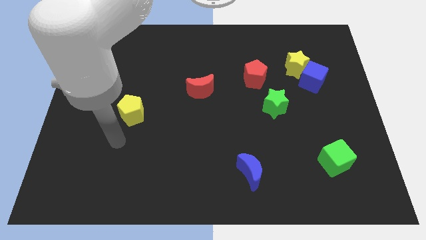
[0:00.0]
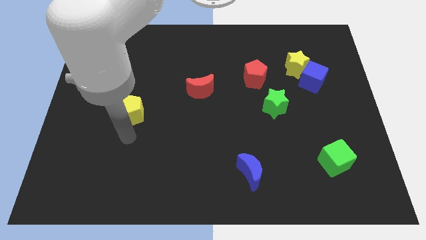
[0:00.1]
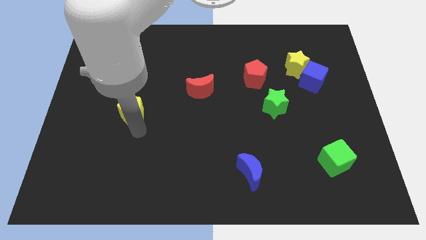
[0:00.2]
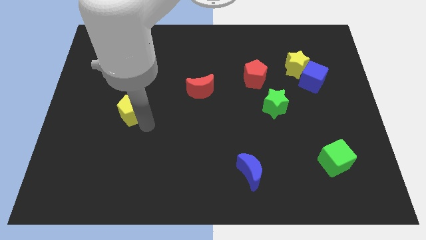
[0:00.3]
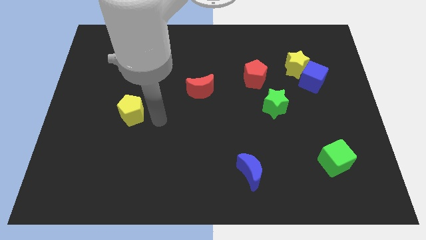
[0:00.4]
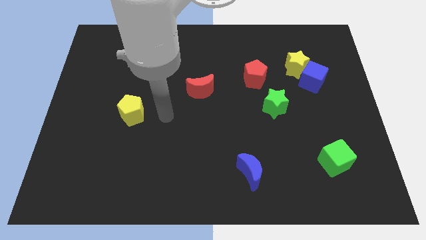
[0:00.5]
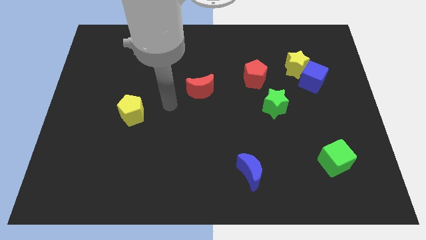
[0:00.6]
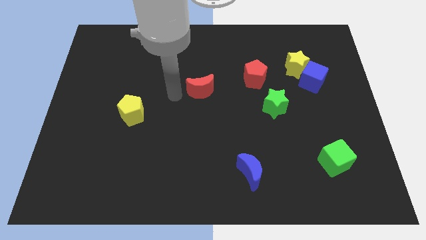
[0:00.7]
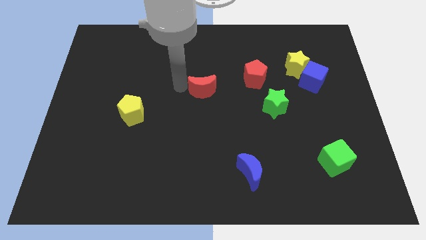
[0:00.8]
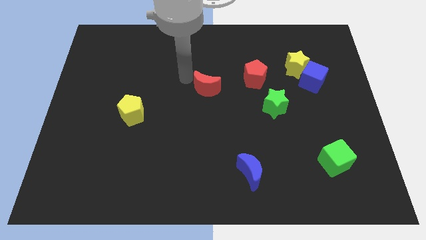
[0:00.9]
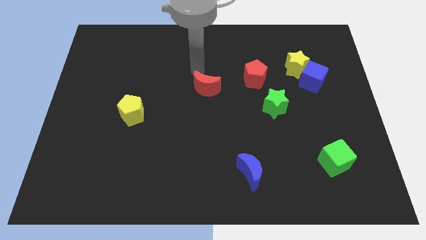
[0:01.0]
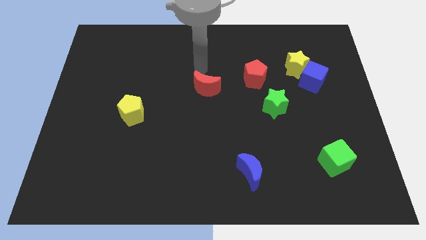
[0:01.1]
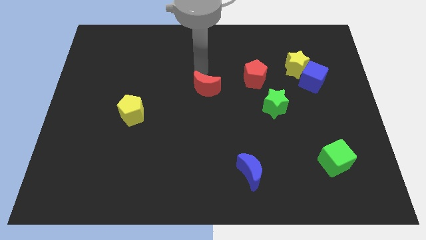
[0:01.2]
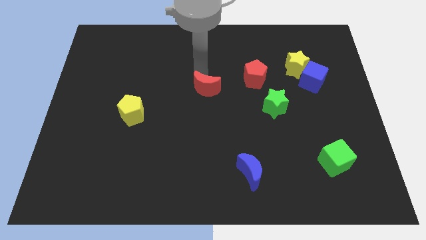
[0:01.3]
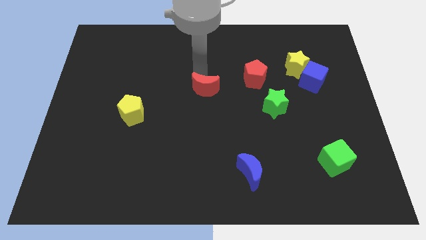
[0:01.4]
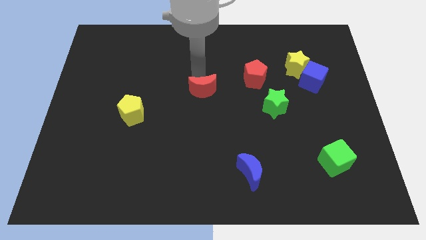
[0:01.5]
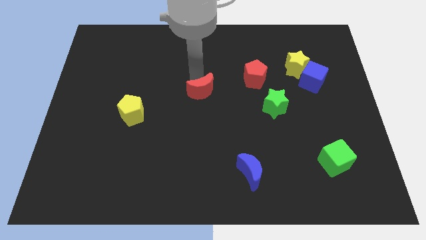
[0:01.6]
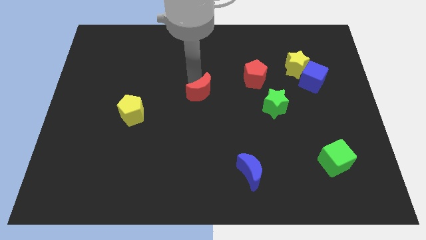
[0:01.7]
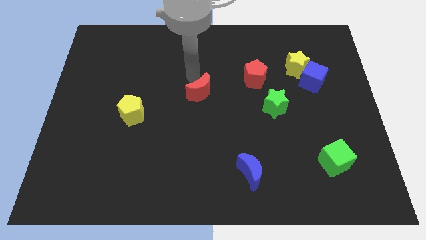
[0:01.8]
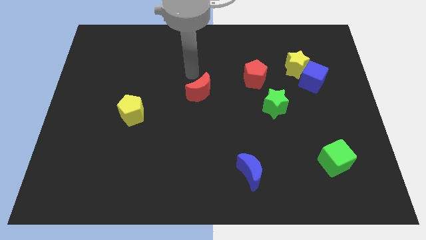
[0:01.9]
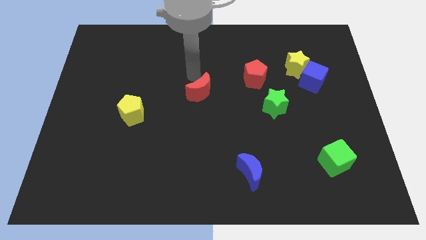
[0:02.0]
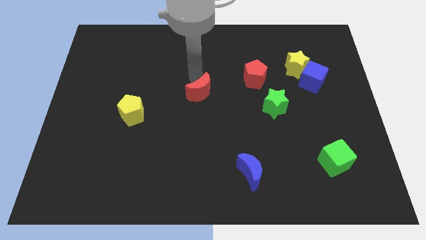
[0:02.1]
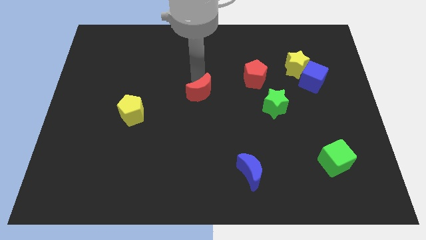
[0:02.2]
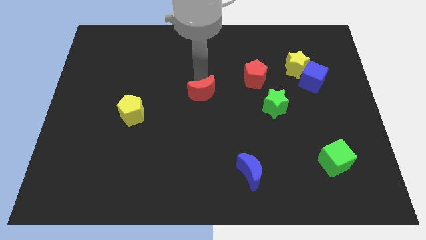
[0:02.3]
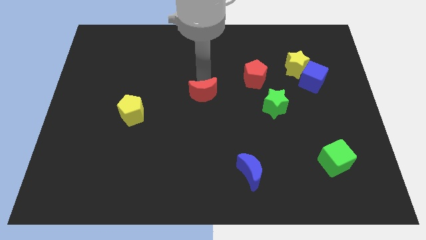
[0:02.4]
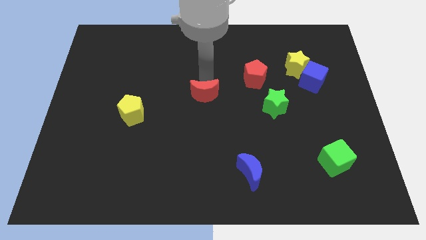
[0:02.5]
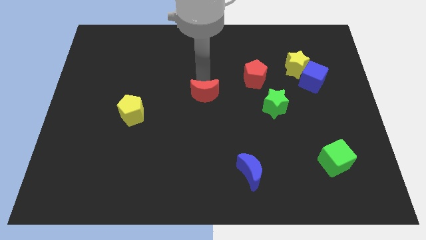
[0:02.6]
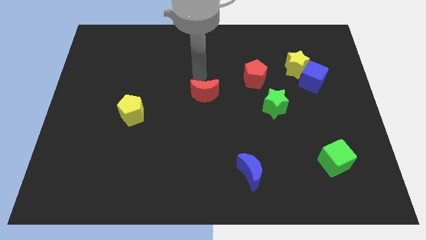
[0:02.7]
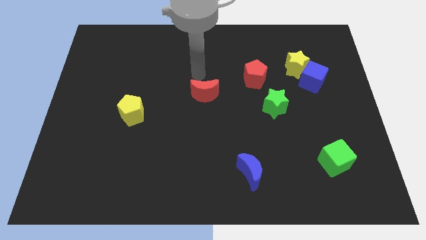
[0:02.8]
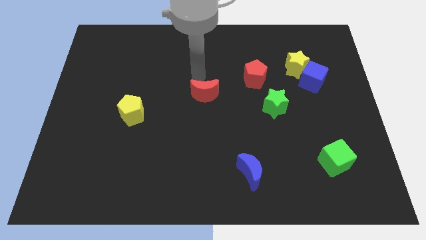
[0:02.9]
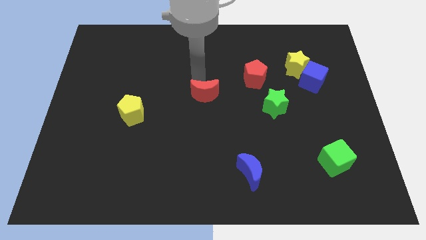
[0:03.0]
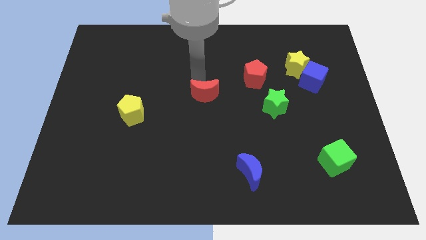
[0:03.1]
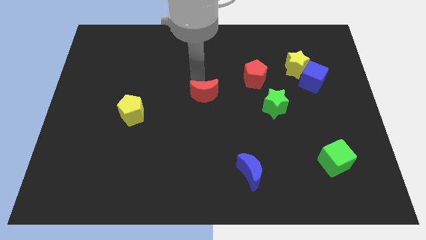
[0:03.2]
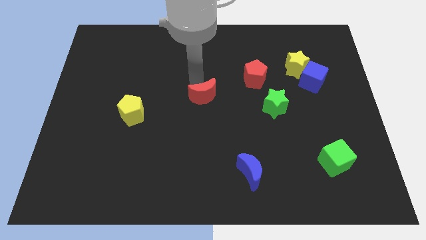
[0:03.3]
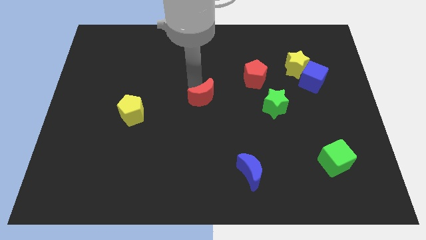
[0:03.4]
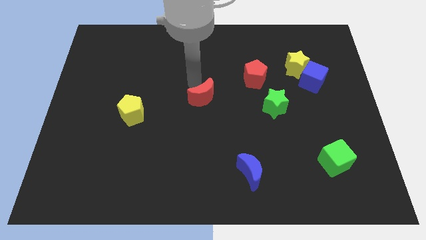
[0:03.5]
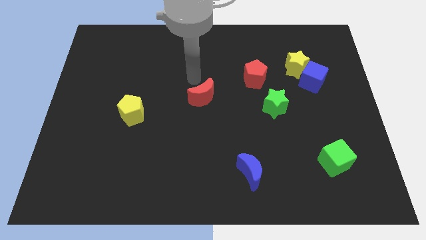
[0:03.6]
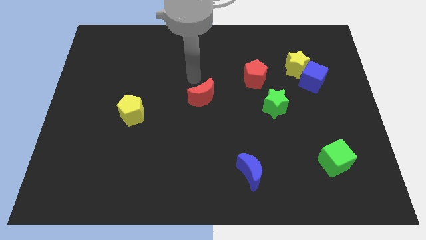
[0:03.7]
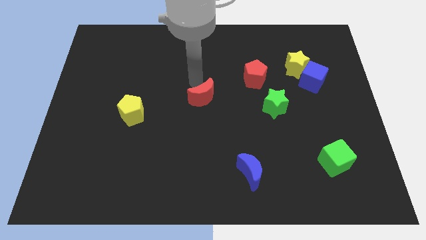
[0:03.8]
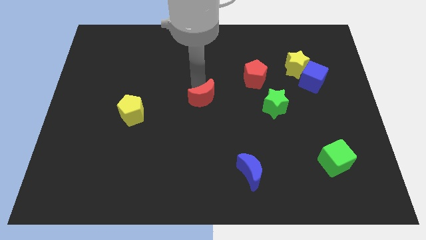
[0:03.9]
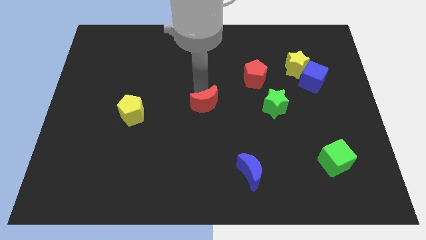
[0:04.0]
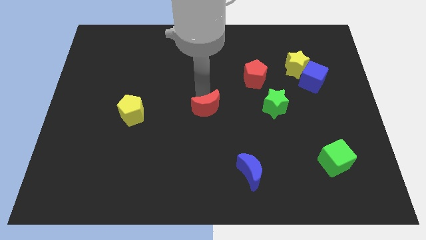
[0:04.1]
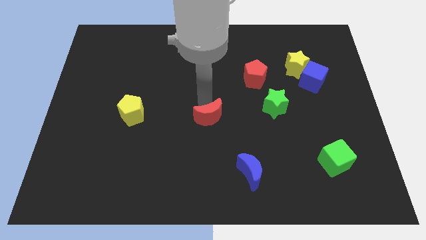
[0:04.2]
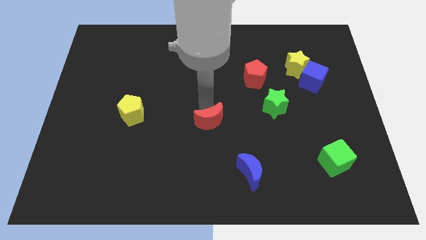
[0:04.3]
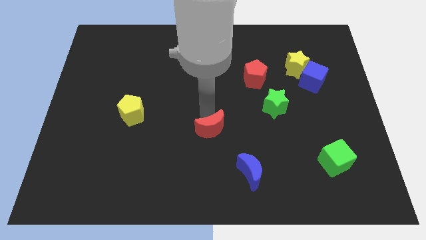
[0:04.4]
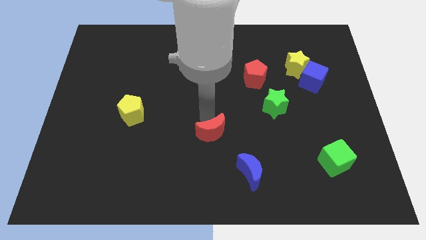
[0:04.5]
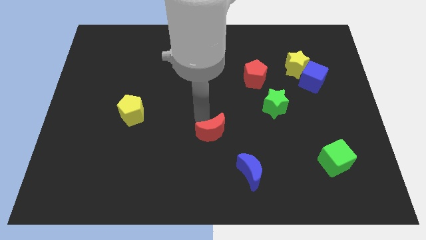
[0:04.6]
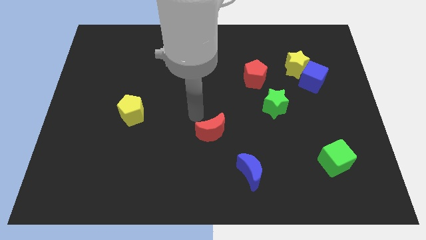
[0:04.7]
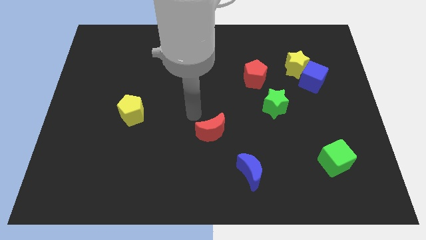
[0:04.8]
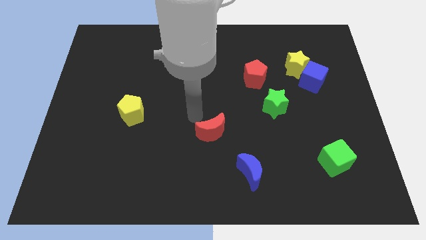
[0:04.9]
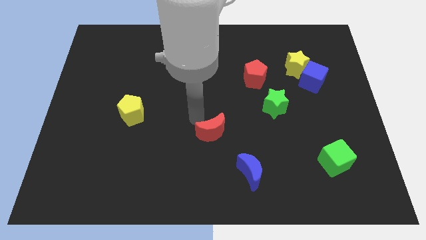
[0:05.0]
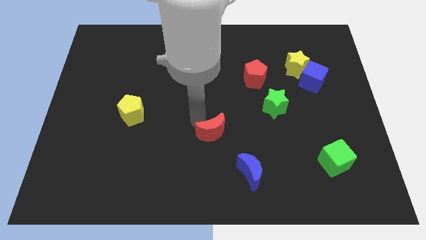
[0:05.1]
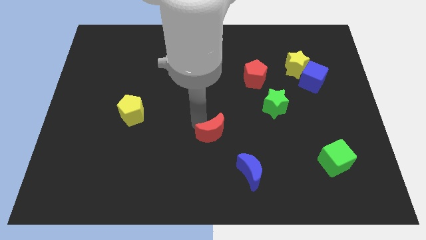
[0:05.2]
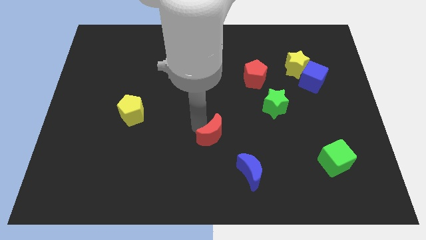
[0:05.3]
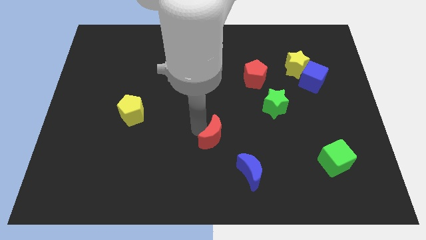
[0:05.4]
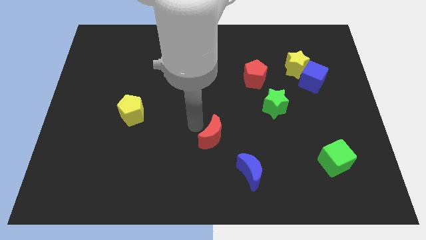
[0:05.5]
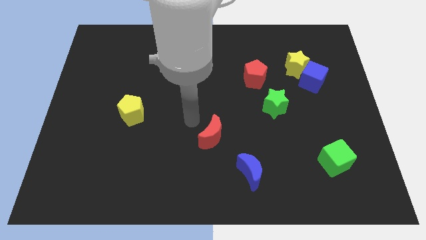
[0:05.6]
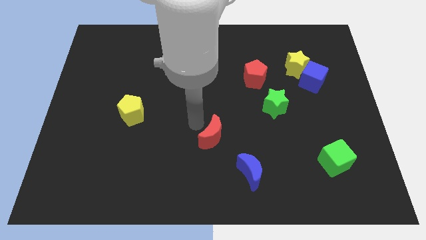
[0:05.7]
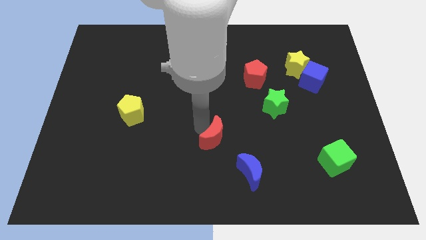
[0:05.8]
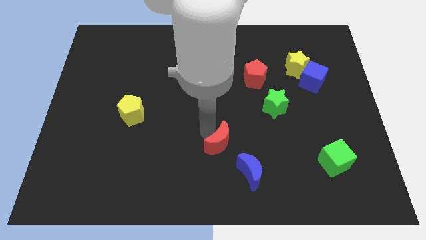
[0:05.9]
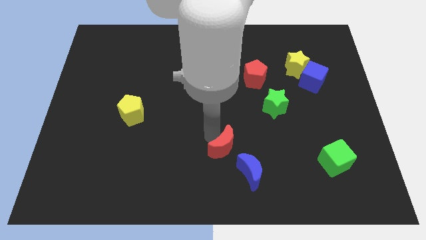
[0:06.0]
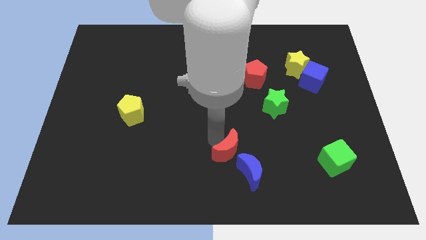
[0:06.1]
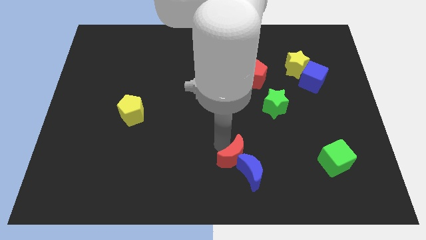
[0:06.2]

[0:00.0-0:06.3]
put the red moon next to the blue moon
